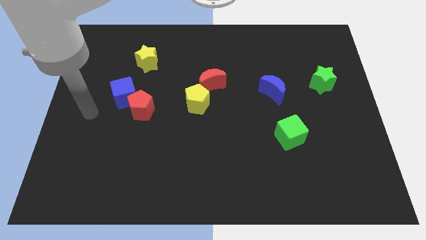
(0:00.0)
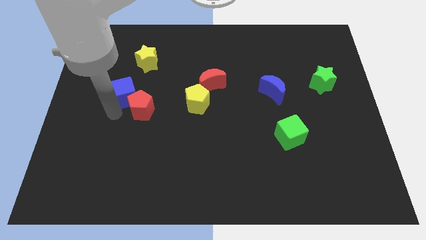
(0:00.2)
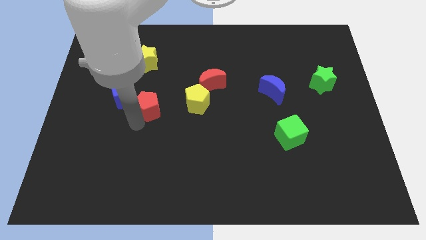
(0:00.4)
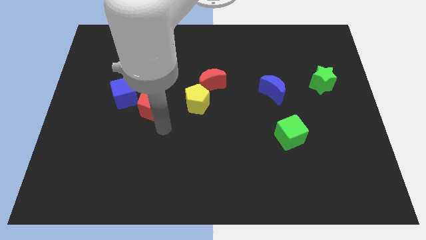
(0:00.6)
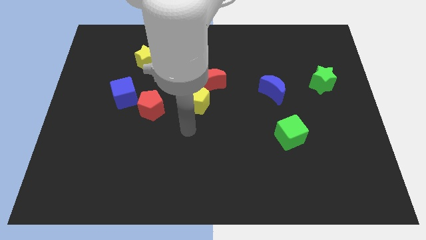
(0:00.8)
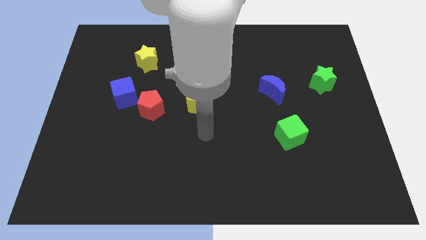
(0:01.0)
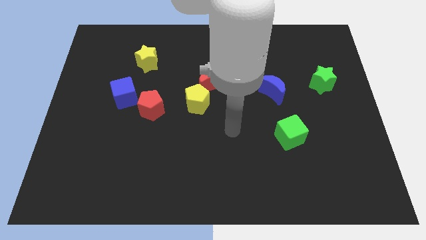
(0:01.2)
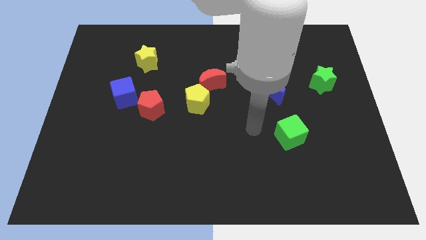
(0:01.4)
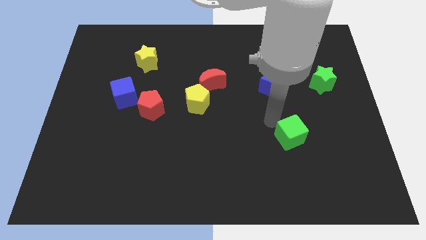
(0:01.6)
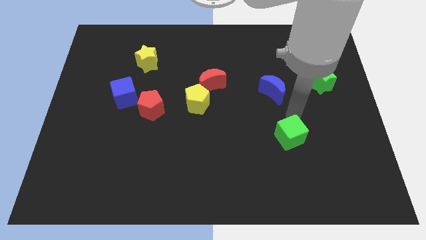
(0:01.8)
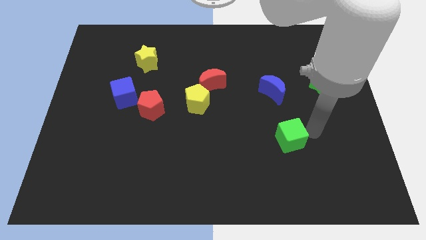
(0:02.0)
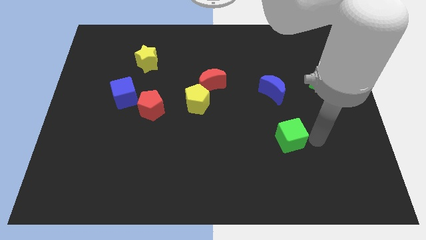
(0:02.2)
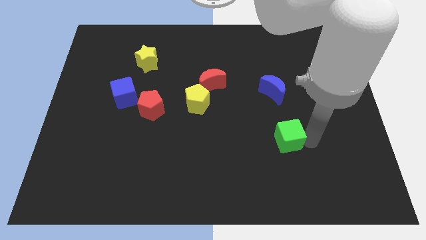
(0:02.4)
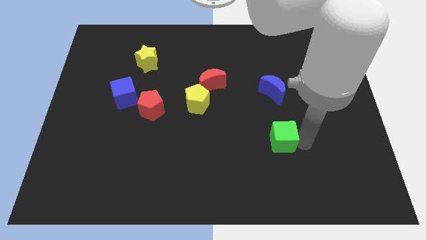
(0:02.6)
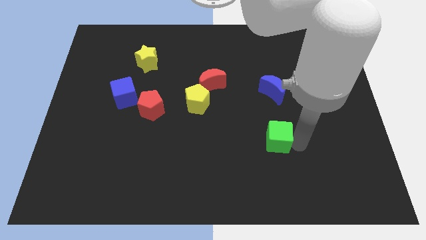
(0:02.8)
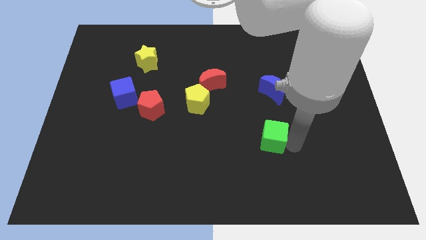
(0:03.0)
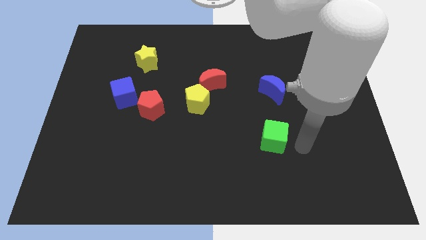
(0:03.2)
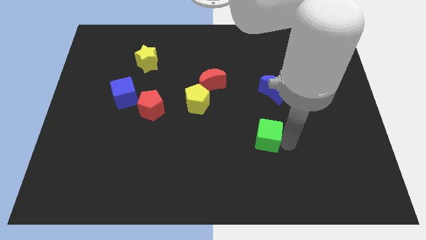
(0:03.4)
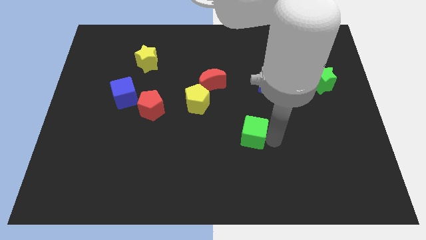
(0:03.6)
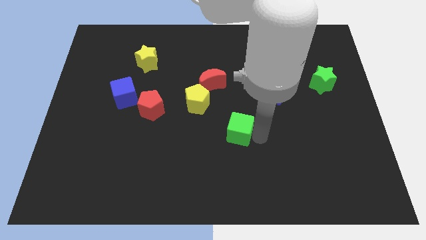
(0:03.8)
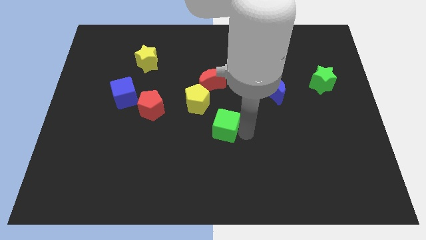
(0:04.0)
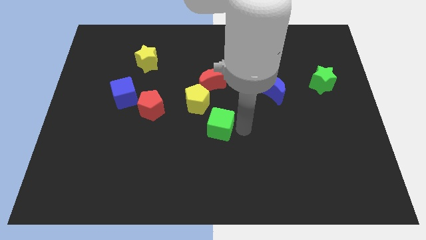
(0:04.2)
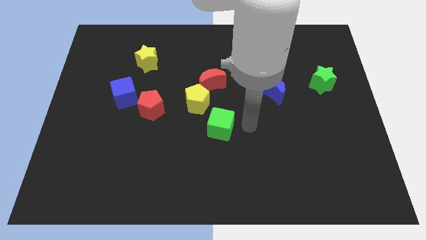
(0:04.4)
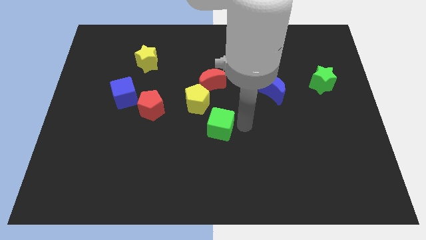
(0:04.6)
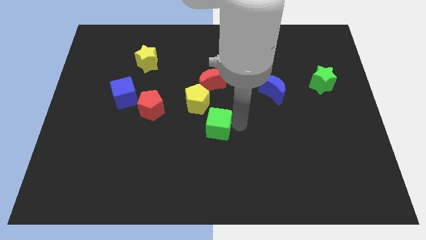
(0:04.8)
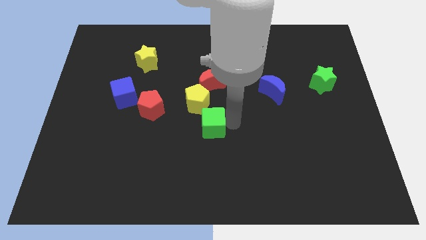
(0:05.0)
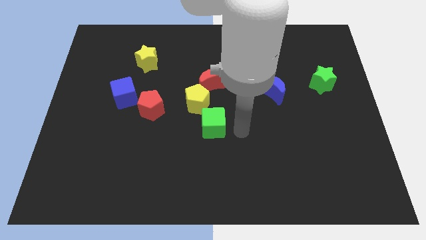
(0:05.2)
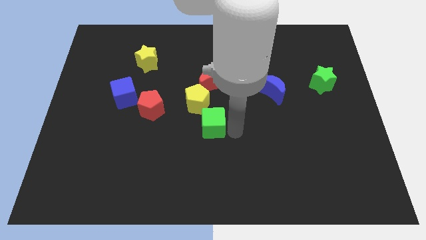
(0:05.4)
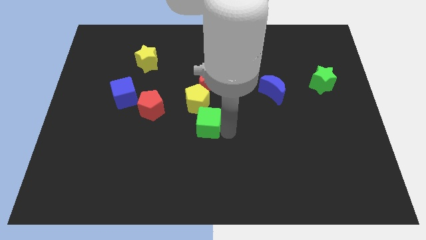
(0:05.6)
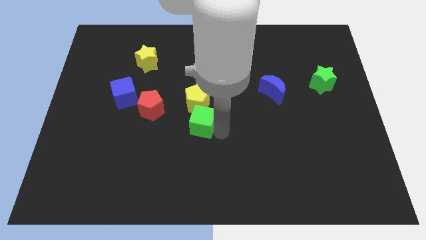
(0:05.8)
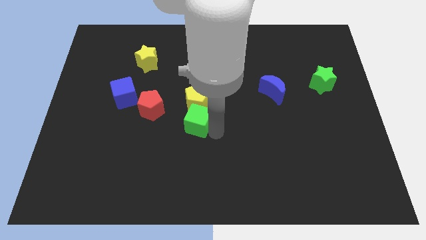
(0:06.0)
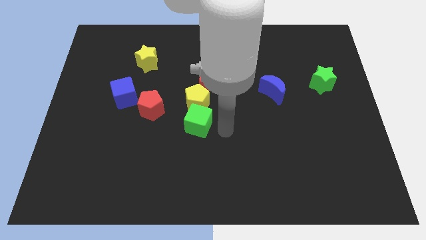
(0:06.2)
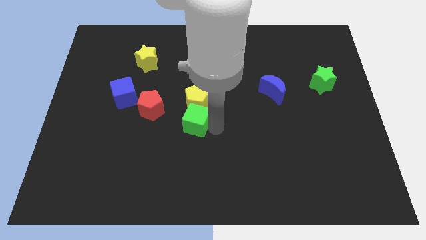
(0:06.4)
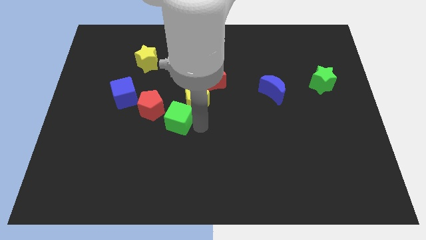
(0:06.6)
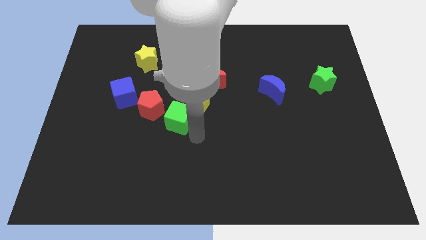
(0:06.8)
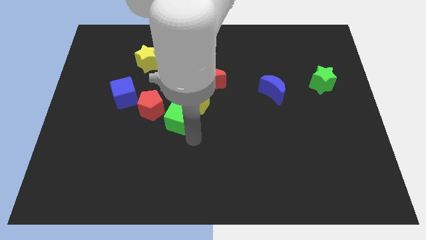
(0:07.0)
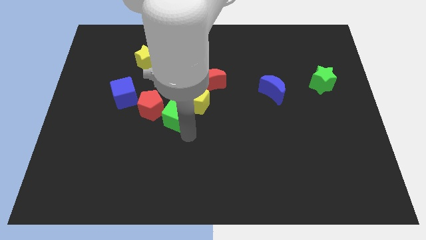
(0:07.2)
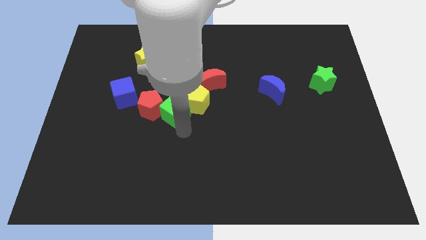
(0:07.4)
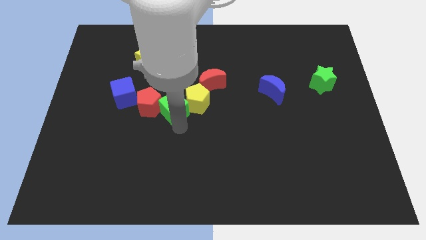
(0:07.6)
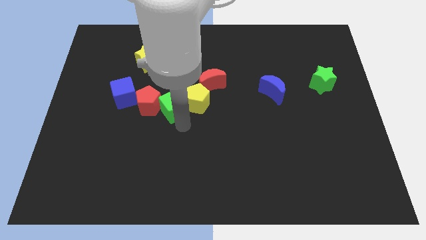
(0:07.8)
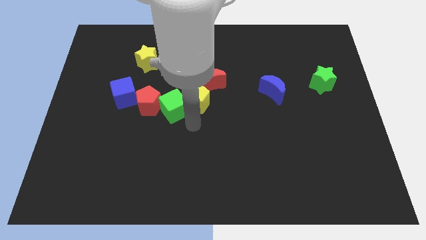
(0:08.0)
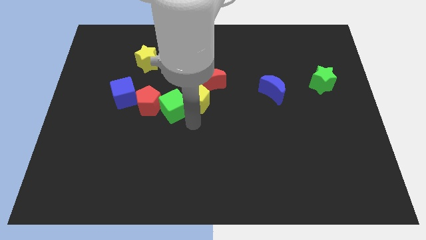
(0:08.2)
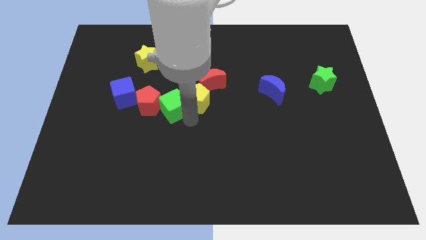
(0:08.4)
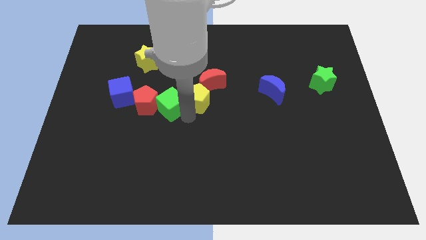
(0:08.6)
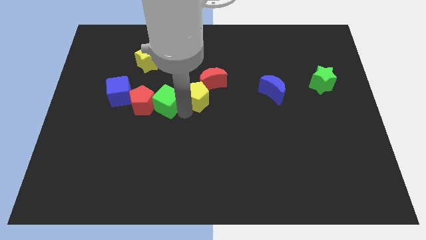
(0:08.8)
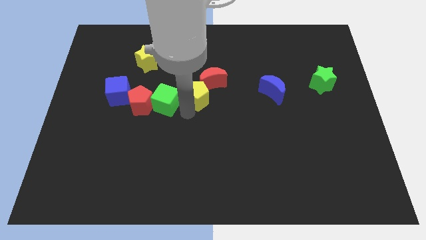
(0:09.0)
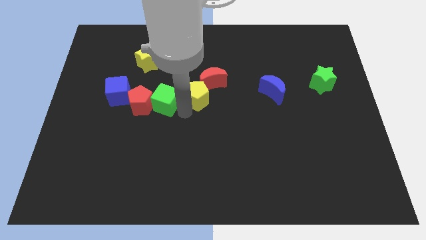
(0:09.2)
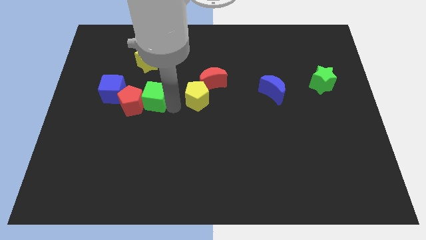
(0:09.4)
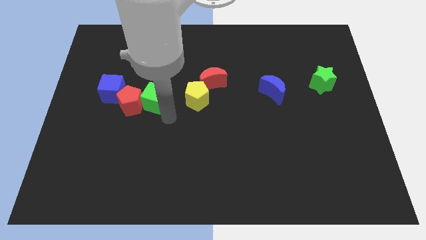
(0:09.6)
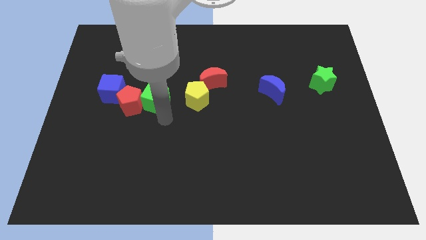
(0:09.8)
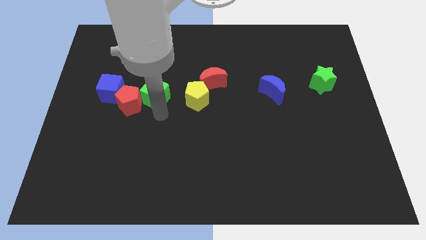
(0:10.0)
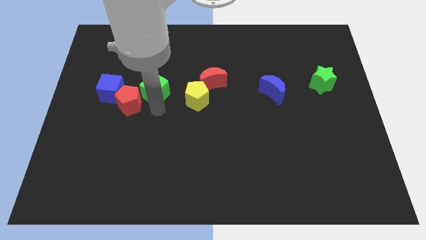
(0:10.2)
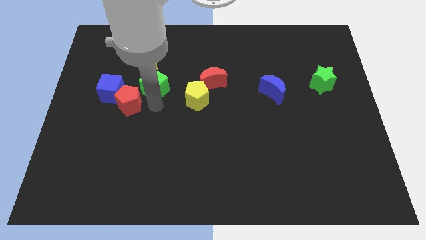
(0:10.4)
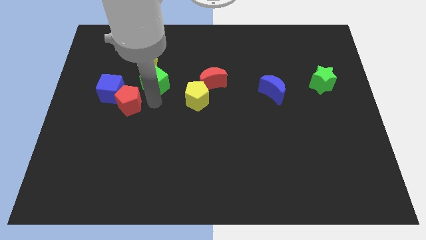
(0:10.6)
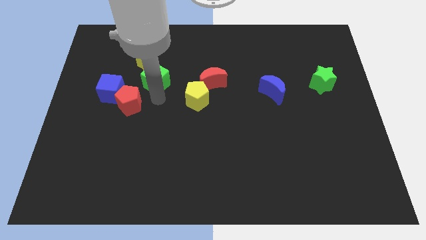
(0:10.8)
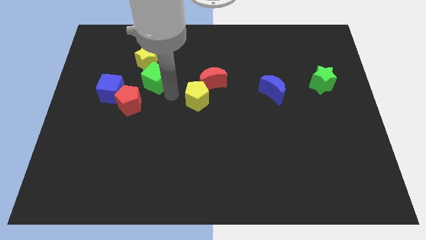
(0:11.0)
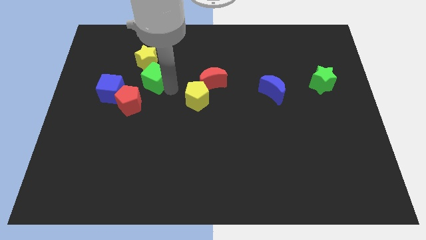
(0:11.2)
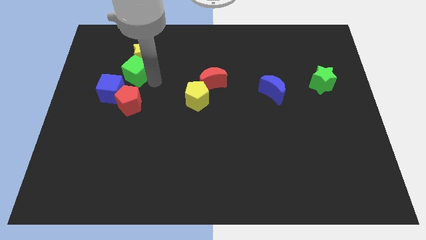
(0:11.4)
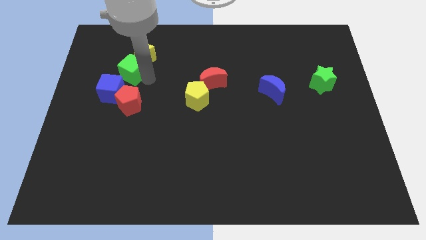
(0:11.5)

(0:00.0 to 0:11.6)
slide the green cube to the top side of the blue cube

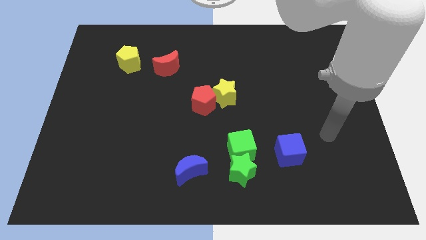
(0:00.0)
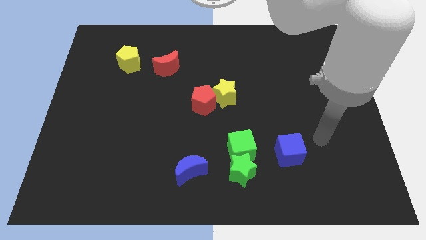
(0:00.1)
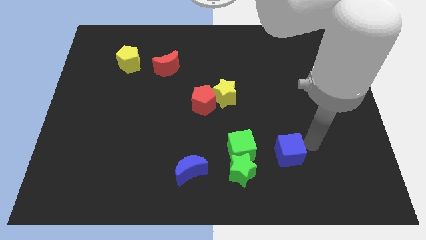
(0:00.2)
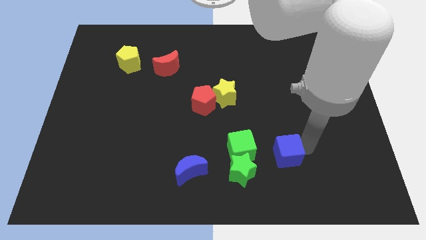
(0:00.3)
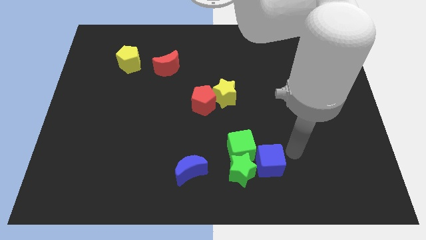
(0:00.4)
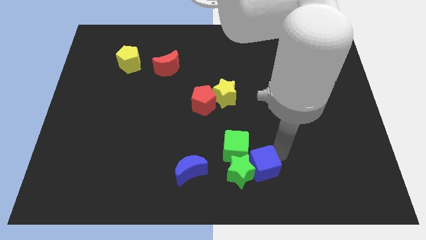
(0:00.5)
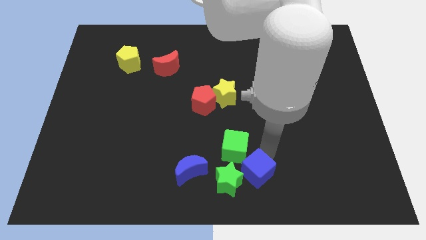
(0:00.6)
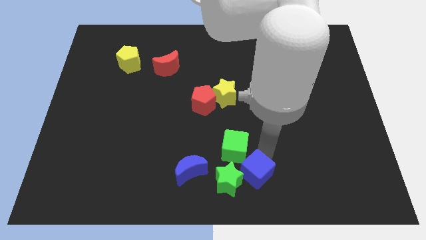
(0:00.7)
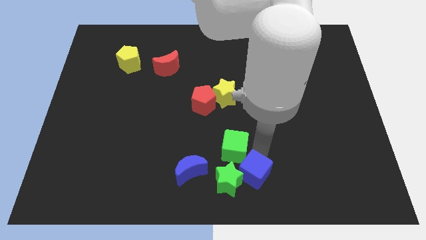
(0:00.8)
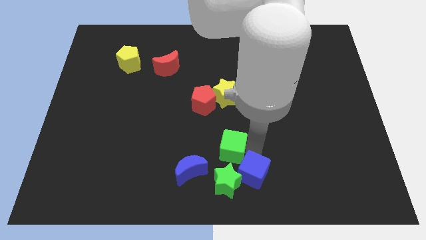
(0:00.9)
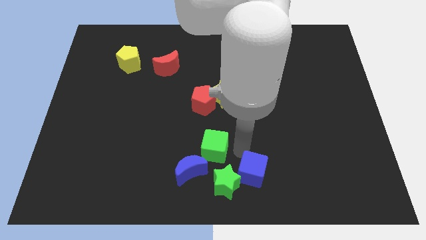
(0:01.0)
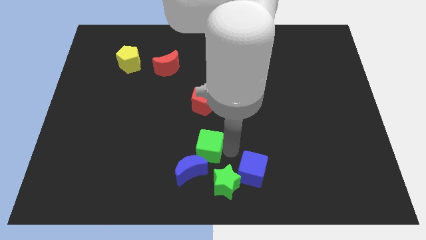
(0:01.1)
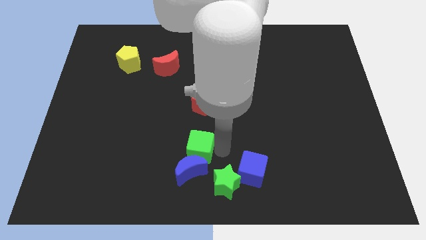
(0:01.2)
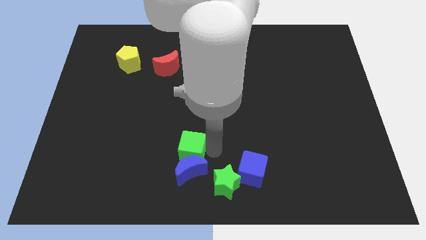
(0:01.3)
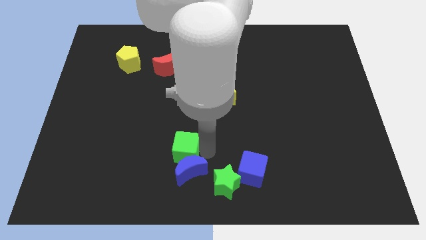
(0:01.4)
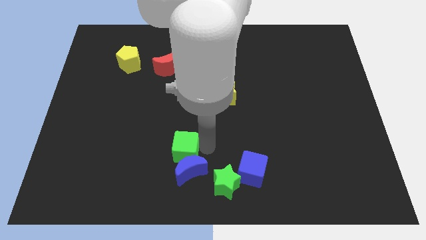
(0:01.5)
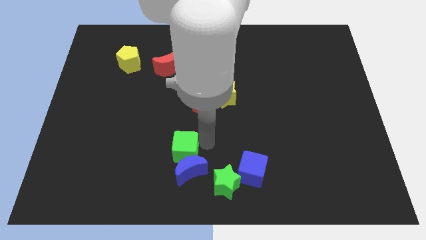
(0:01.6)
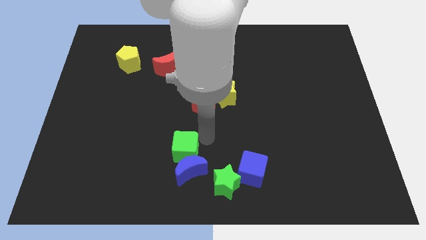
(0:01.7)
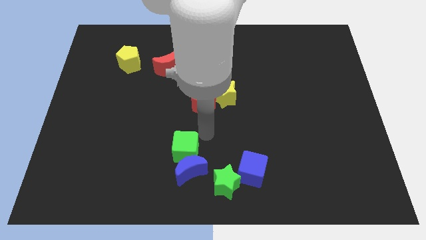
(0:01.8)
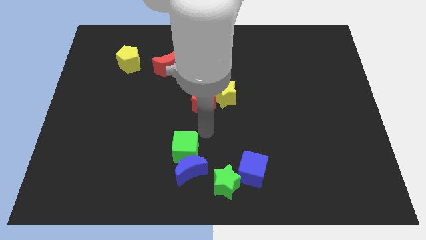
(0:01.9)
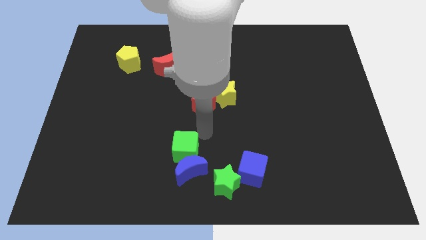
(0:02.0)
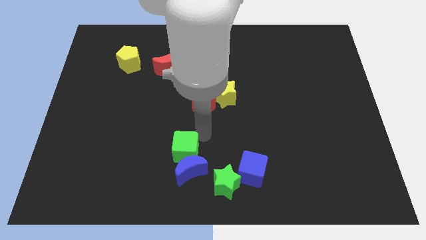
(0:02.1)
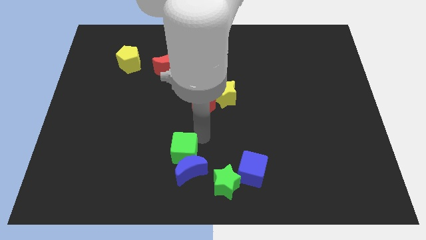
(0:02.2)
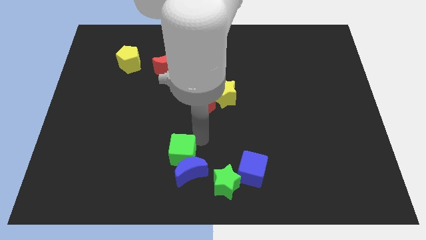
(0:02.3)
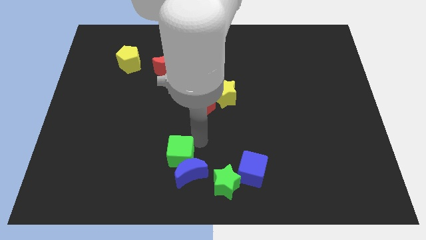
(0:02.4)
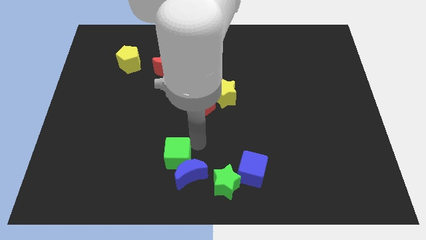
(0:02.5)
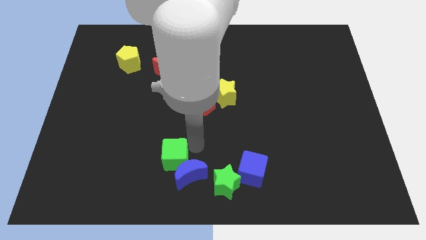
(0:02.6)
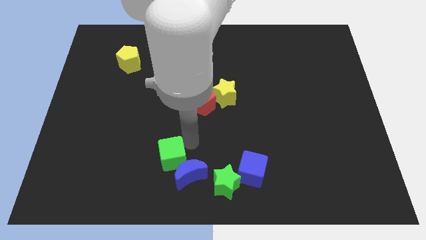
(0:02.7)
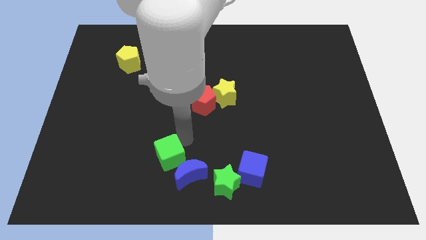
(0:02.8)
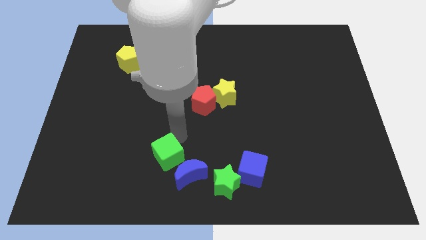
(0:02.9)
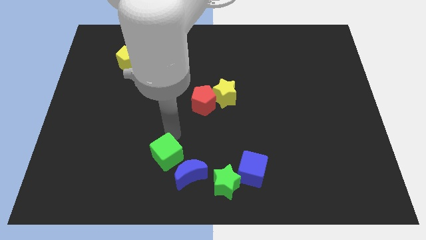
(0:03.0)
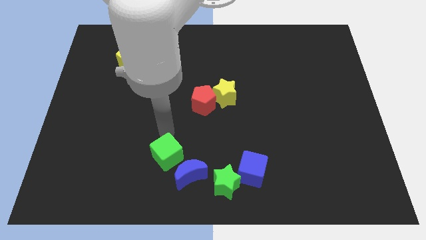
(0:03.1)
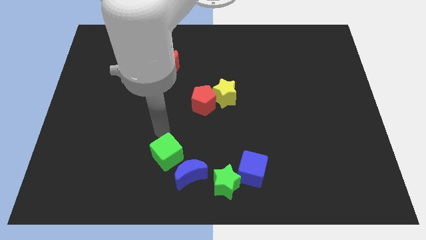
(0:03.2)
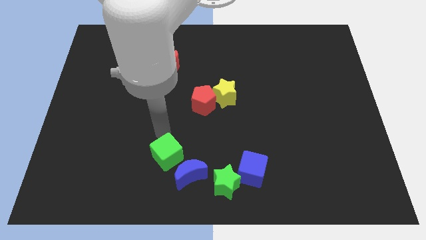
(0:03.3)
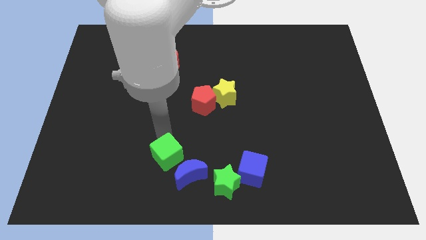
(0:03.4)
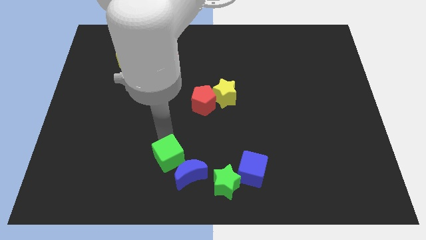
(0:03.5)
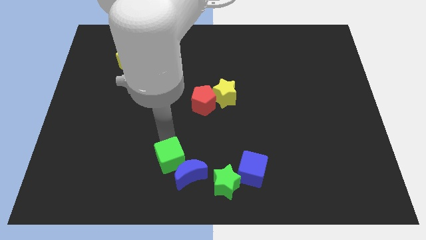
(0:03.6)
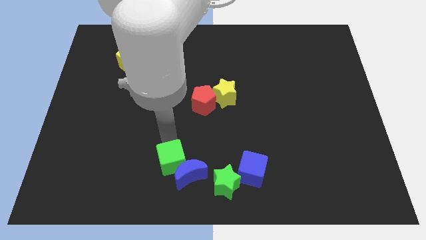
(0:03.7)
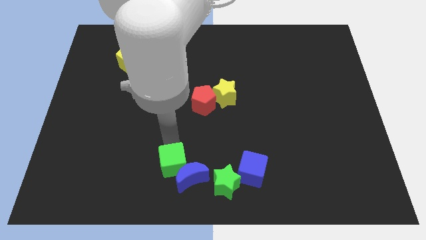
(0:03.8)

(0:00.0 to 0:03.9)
put the green cube left of the green star
